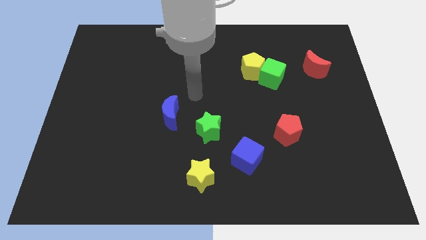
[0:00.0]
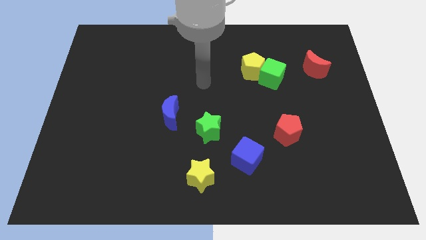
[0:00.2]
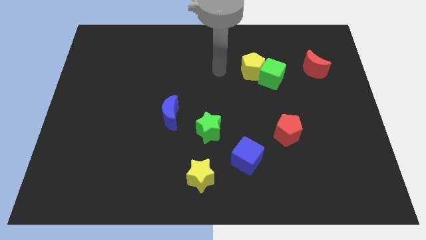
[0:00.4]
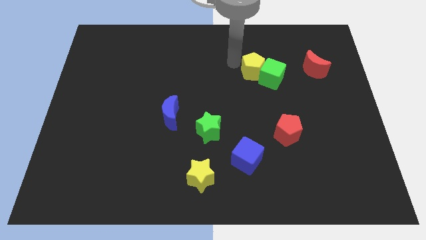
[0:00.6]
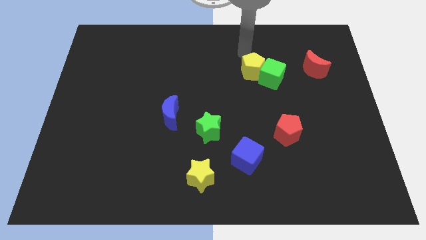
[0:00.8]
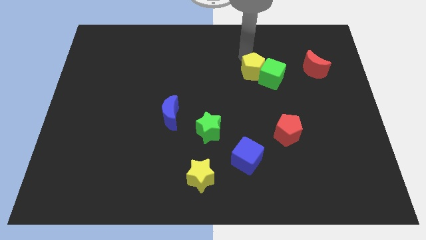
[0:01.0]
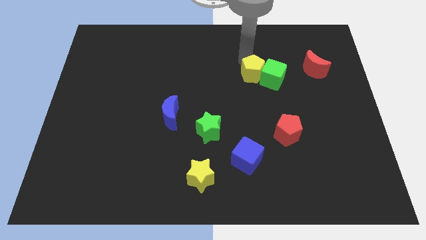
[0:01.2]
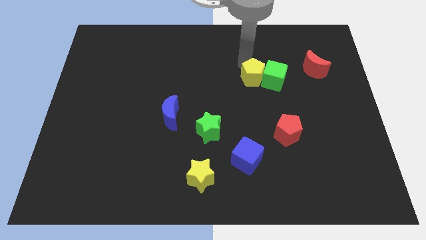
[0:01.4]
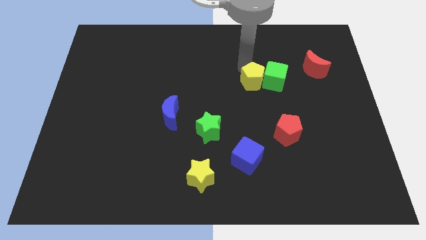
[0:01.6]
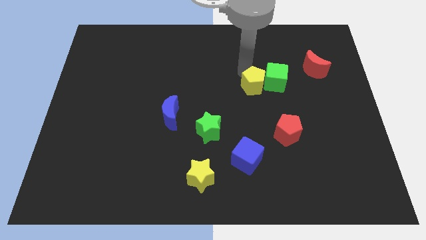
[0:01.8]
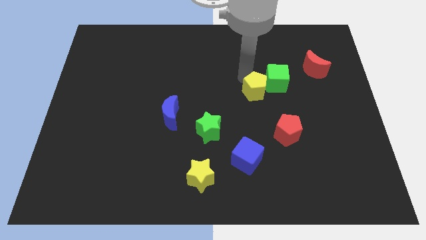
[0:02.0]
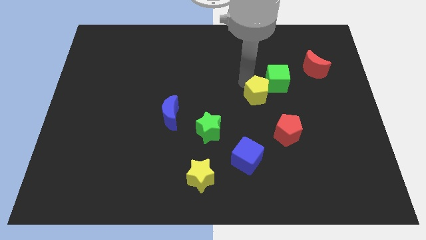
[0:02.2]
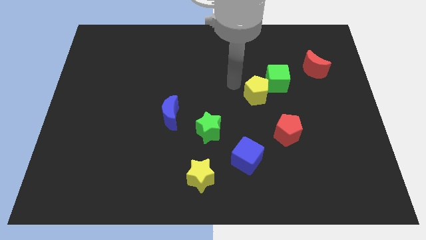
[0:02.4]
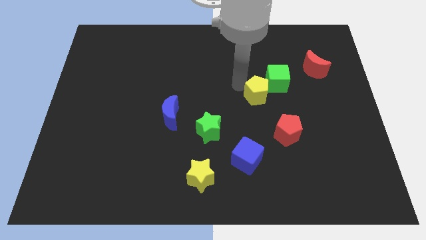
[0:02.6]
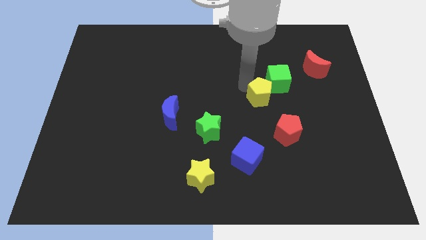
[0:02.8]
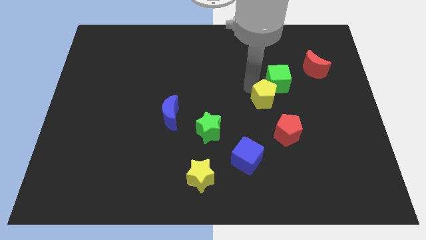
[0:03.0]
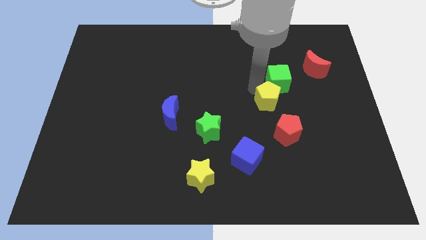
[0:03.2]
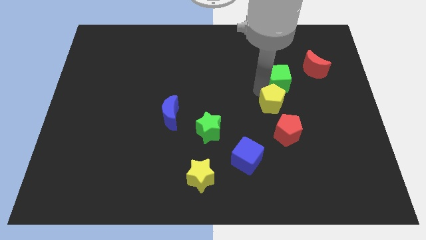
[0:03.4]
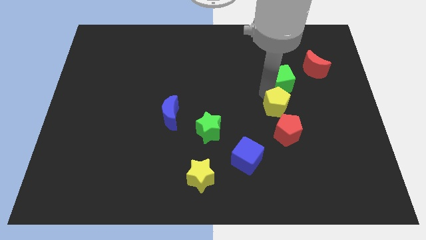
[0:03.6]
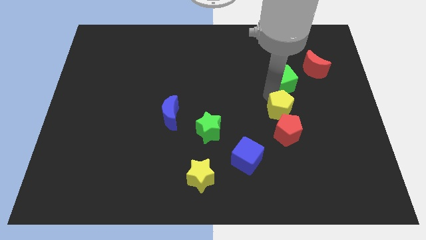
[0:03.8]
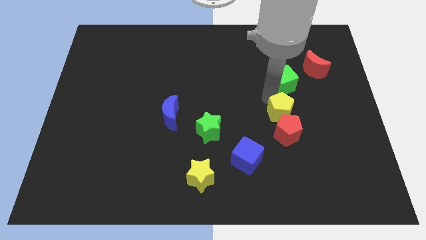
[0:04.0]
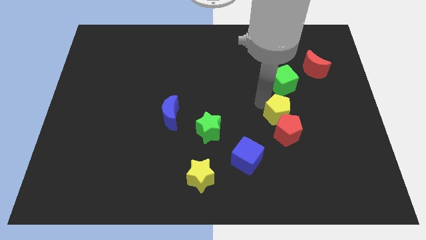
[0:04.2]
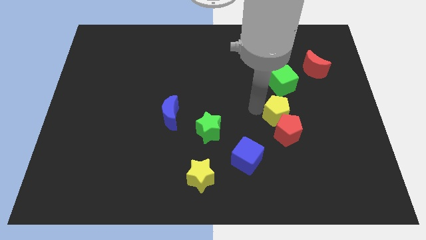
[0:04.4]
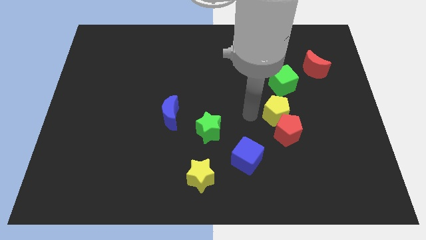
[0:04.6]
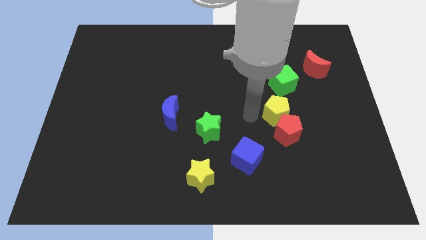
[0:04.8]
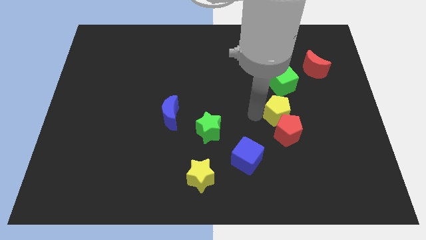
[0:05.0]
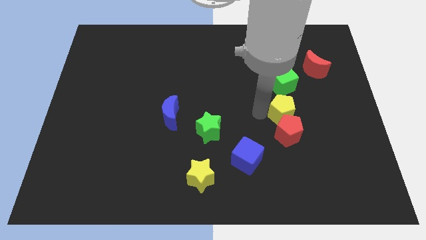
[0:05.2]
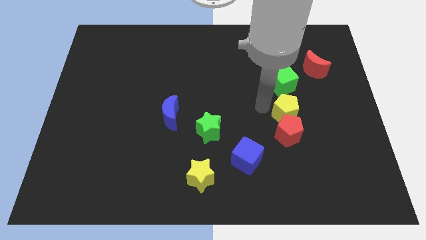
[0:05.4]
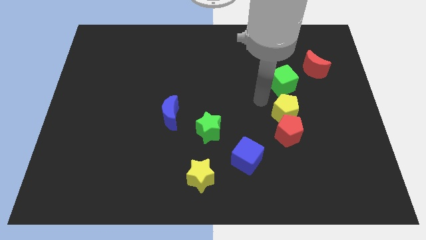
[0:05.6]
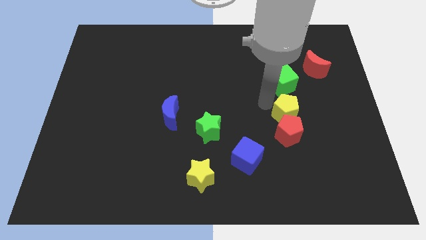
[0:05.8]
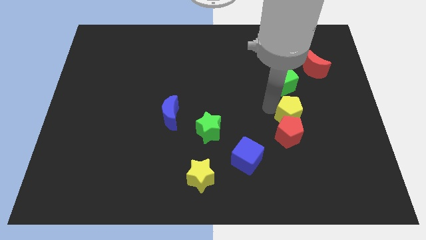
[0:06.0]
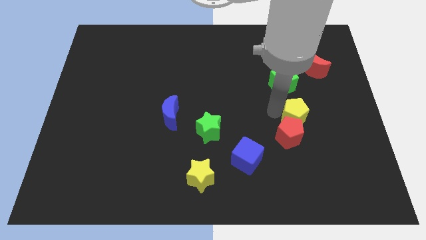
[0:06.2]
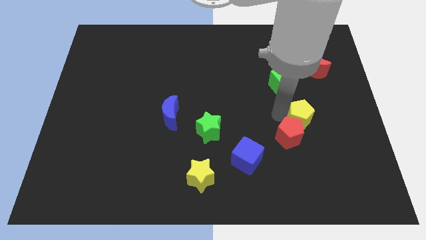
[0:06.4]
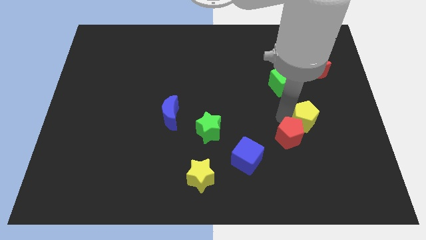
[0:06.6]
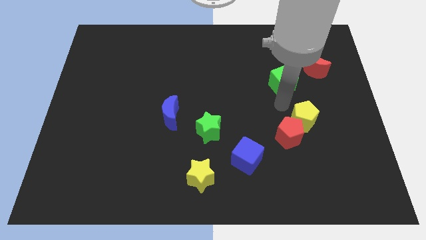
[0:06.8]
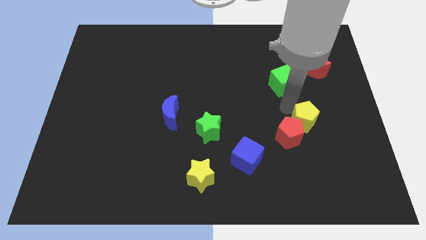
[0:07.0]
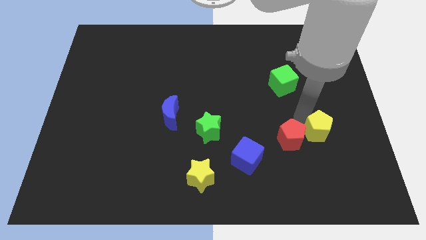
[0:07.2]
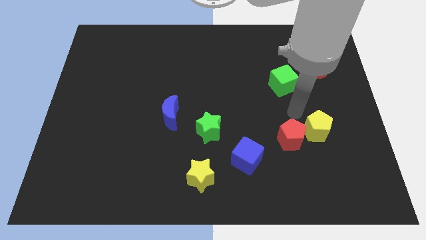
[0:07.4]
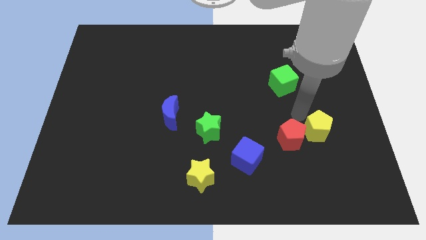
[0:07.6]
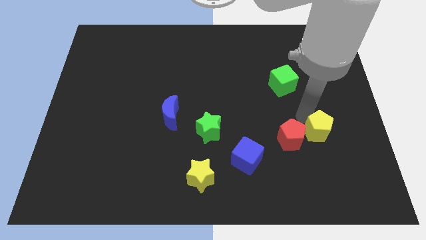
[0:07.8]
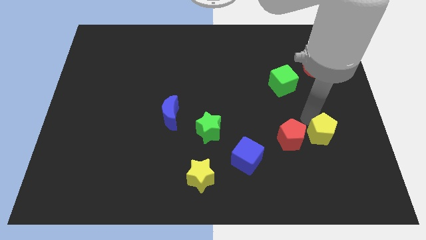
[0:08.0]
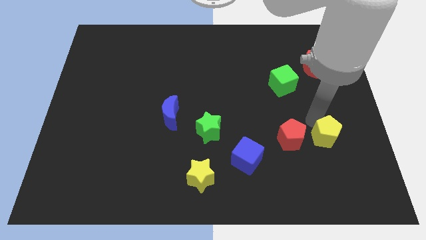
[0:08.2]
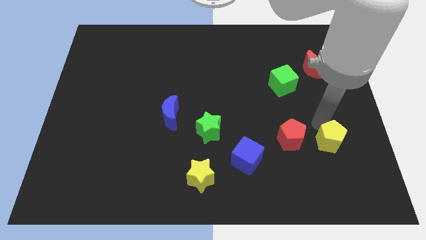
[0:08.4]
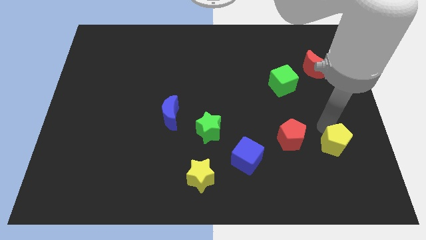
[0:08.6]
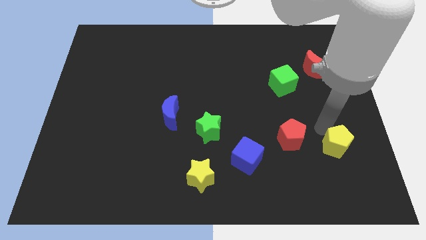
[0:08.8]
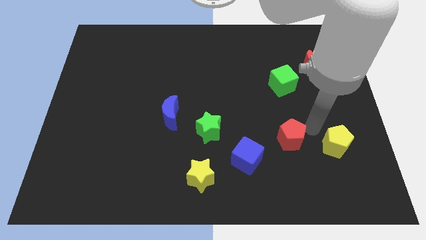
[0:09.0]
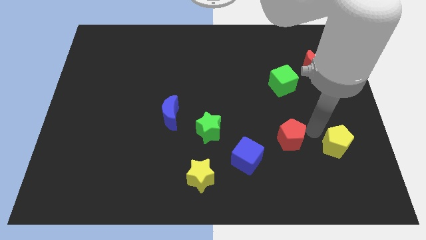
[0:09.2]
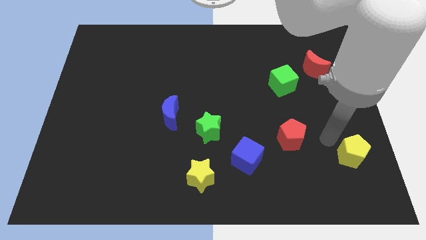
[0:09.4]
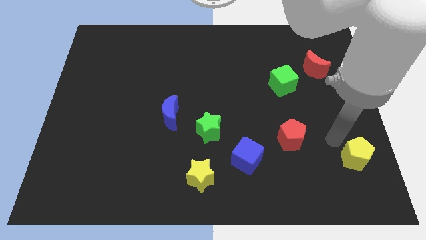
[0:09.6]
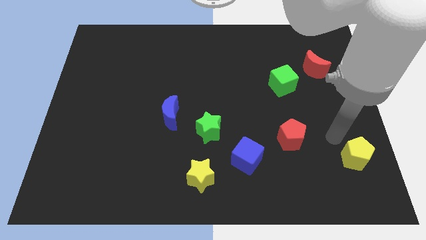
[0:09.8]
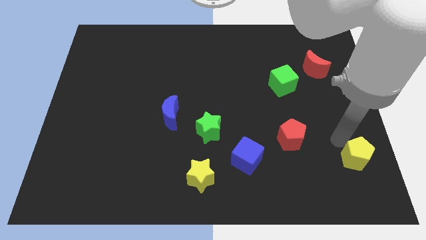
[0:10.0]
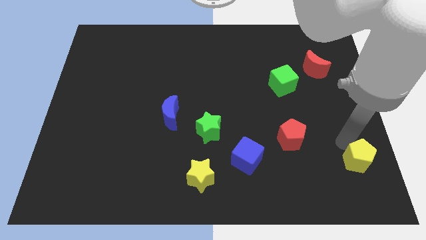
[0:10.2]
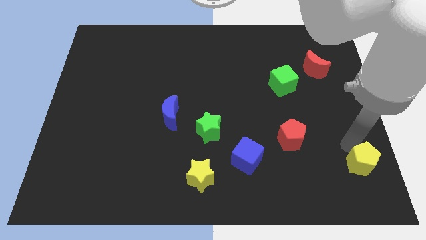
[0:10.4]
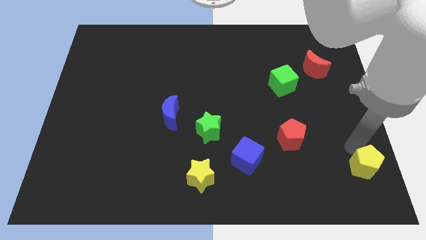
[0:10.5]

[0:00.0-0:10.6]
slide the yellow pentagon to the bottom right of the board

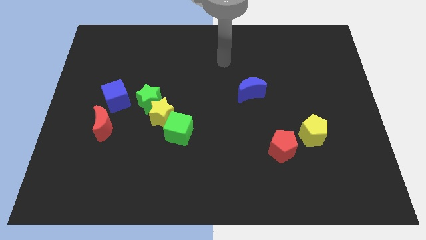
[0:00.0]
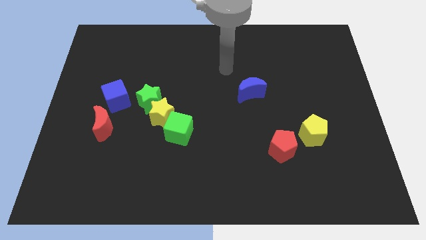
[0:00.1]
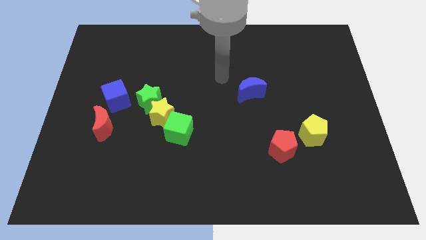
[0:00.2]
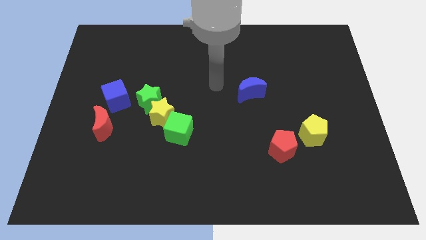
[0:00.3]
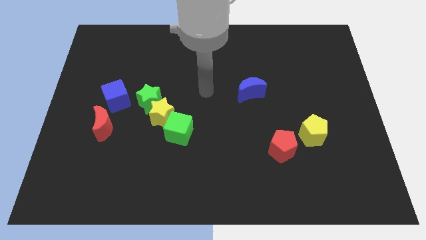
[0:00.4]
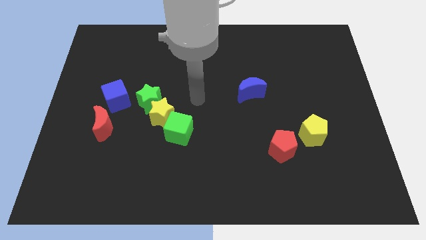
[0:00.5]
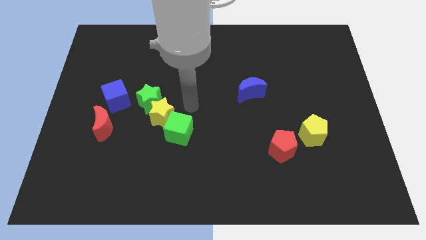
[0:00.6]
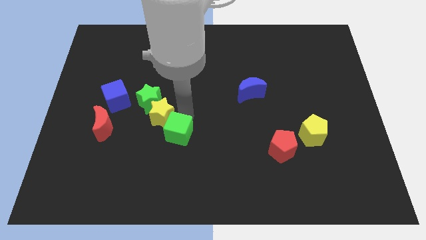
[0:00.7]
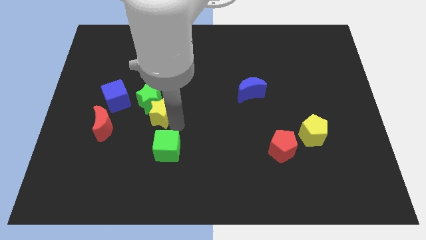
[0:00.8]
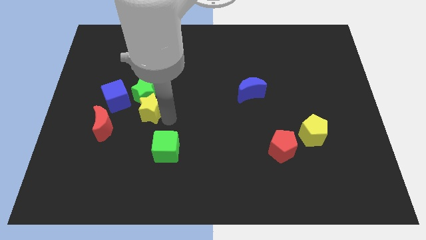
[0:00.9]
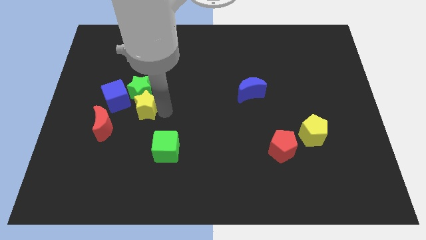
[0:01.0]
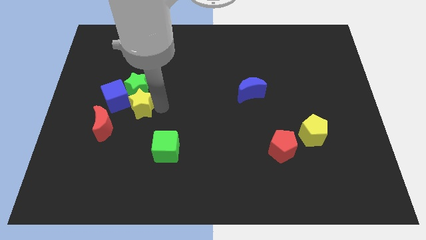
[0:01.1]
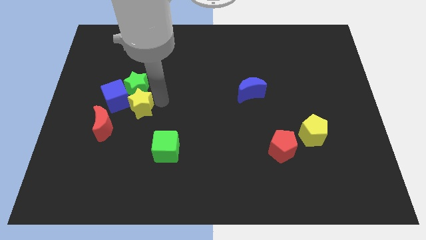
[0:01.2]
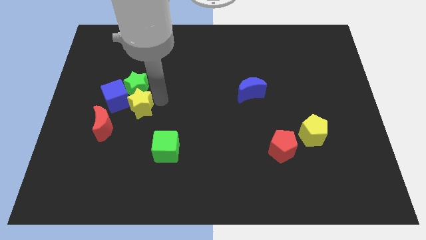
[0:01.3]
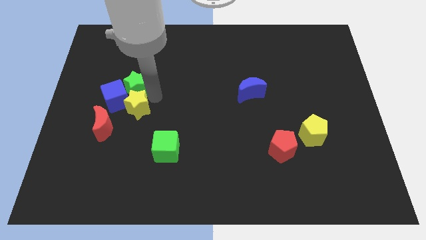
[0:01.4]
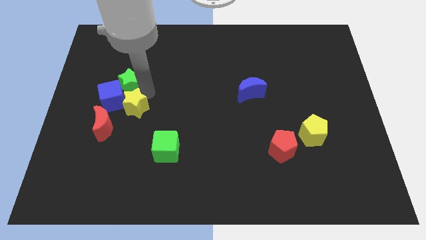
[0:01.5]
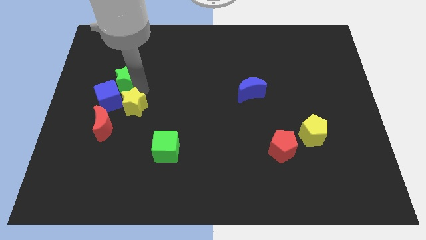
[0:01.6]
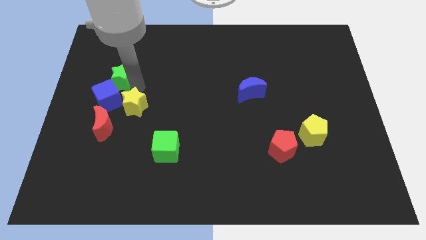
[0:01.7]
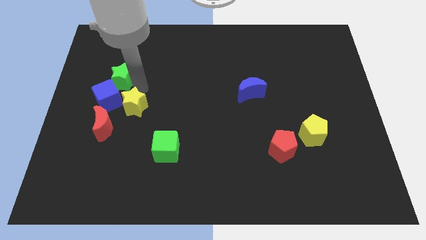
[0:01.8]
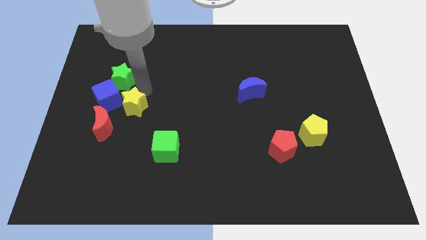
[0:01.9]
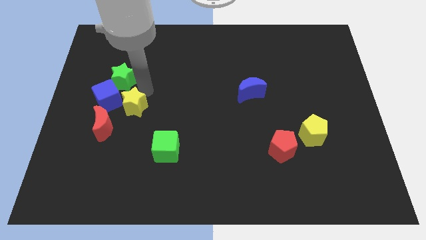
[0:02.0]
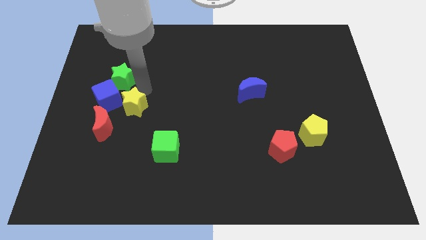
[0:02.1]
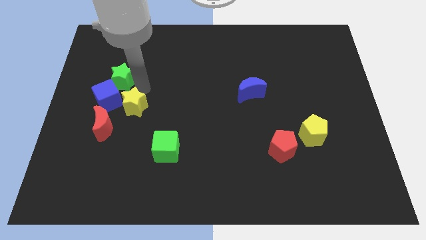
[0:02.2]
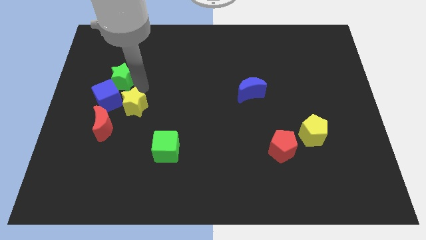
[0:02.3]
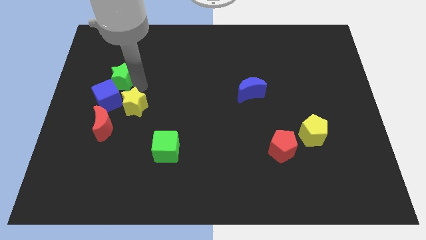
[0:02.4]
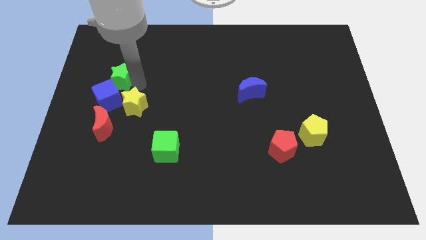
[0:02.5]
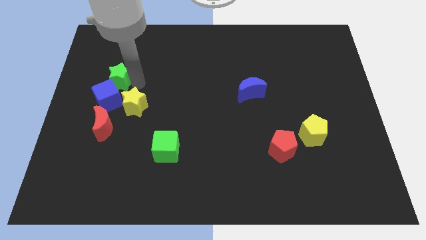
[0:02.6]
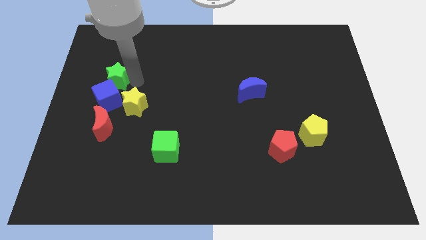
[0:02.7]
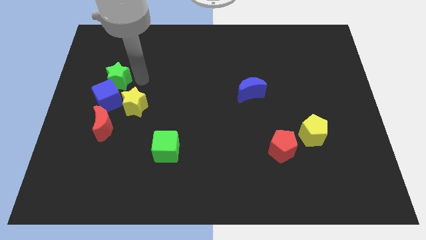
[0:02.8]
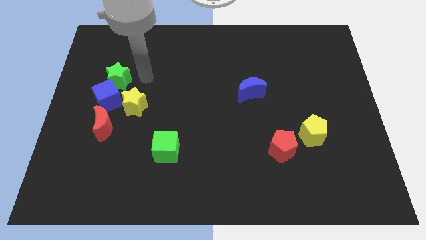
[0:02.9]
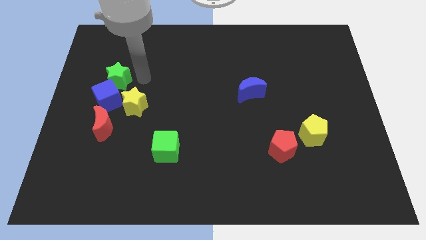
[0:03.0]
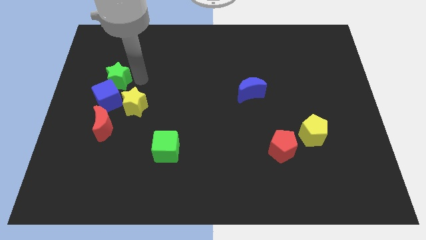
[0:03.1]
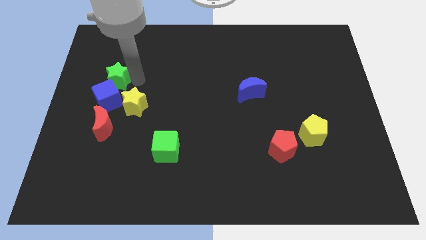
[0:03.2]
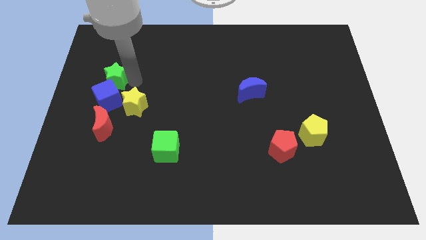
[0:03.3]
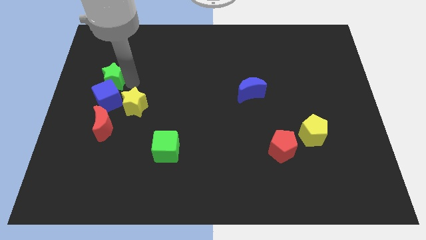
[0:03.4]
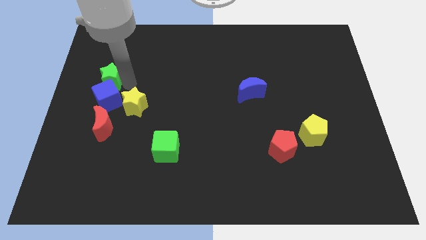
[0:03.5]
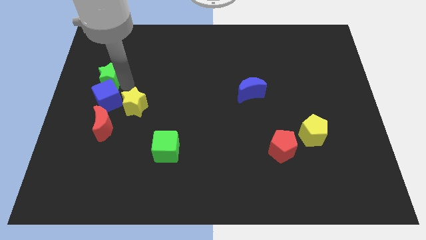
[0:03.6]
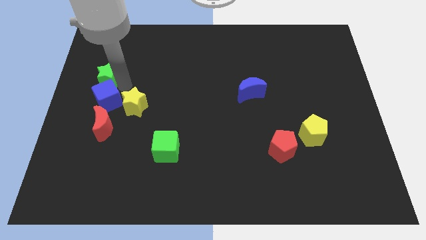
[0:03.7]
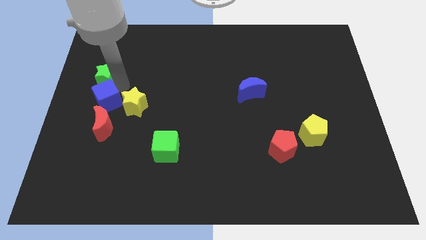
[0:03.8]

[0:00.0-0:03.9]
move the green star to the left side of the board
